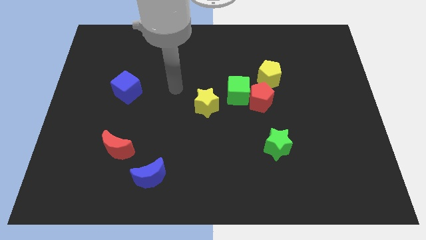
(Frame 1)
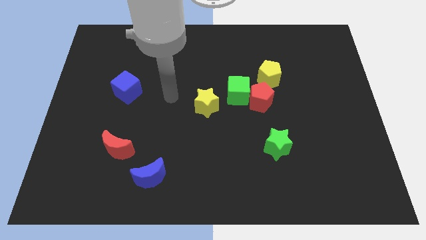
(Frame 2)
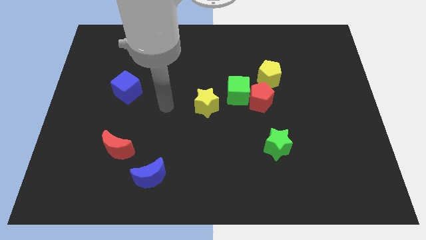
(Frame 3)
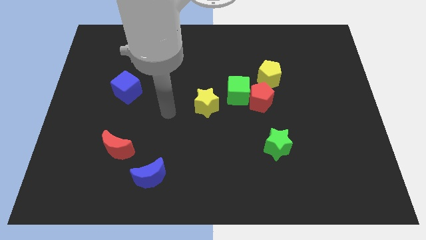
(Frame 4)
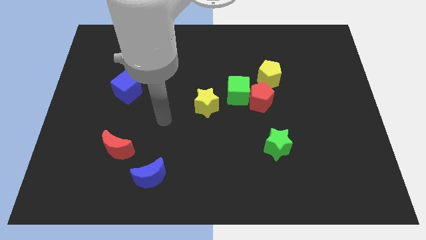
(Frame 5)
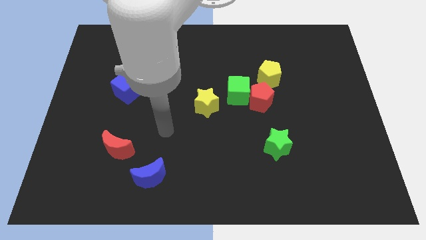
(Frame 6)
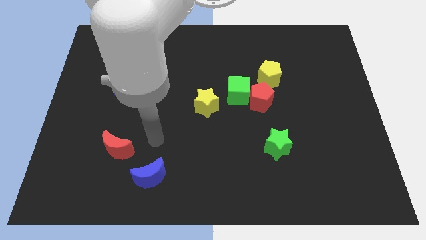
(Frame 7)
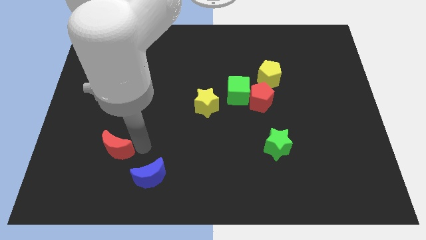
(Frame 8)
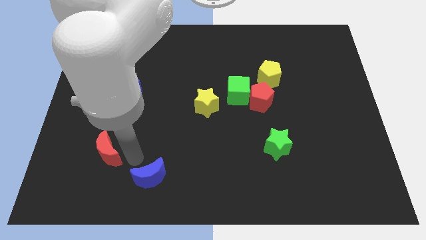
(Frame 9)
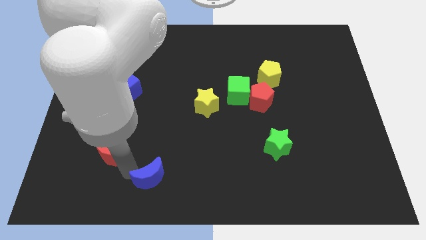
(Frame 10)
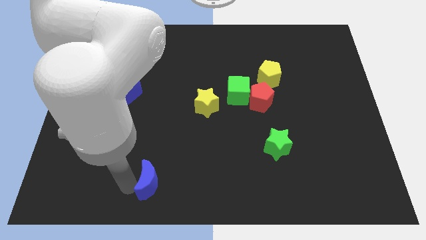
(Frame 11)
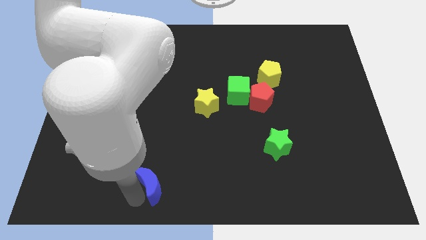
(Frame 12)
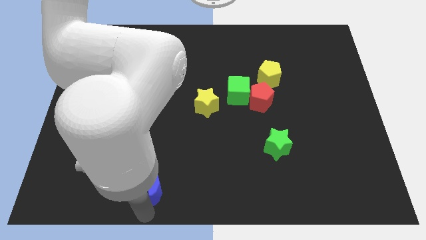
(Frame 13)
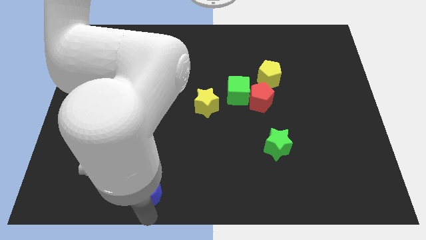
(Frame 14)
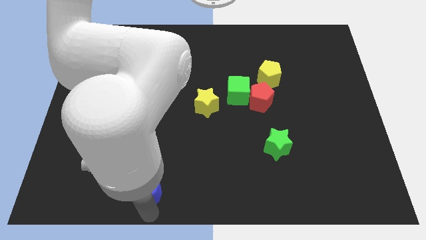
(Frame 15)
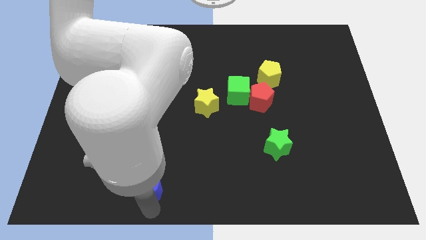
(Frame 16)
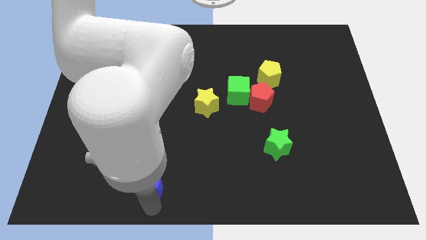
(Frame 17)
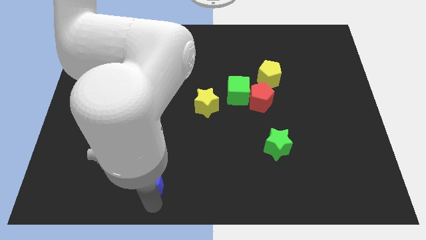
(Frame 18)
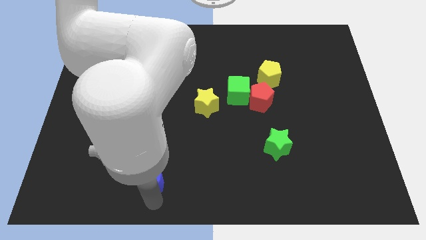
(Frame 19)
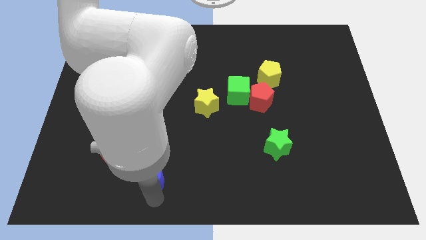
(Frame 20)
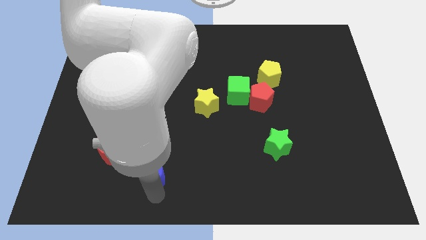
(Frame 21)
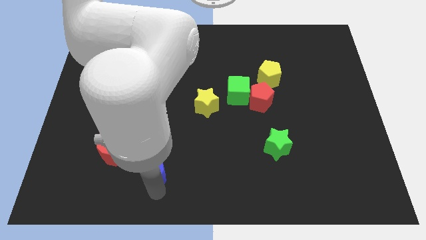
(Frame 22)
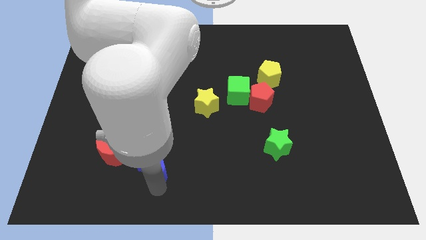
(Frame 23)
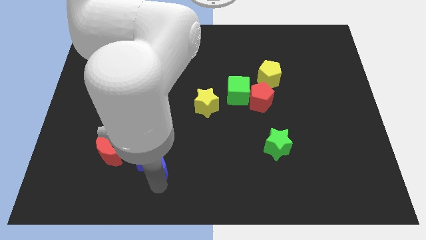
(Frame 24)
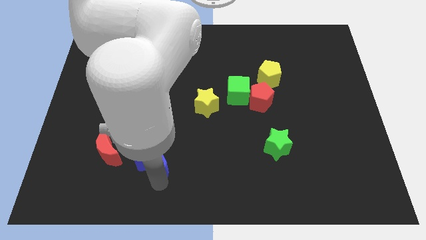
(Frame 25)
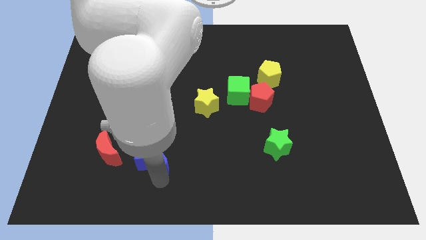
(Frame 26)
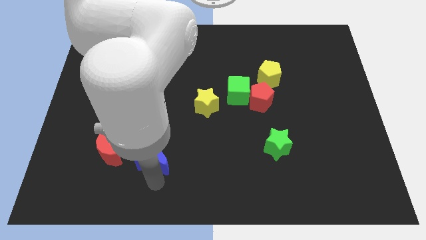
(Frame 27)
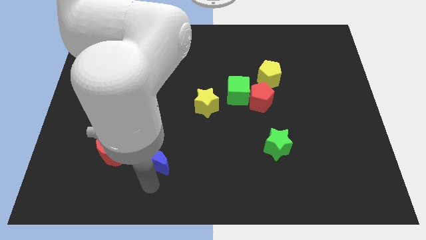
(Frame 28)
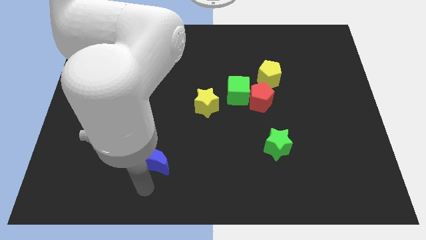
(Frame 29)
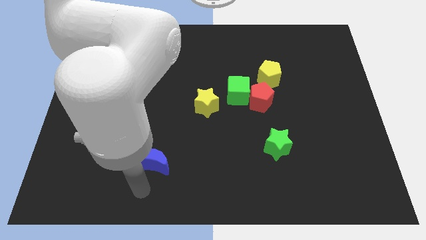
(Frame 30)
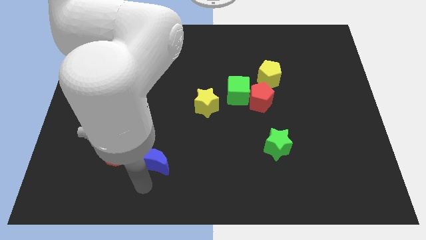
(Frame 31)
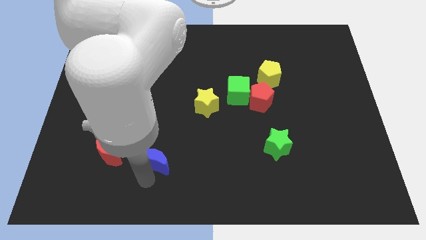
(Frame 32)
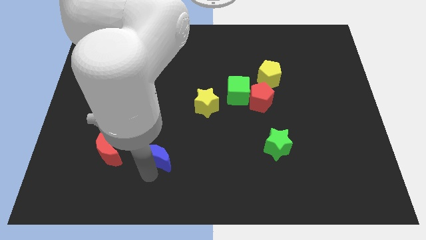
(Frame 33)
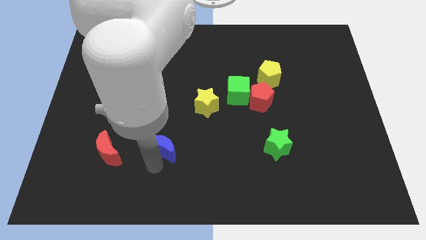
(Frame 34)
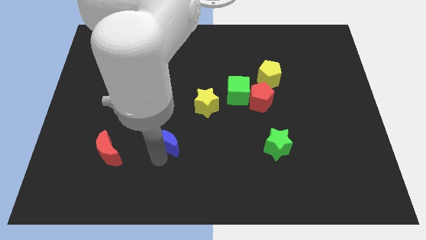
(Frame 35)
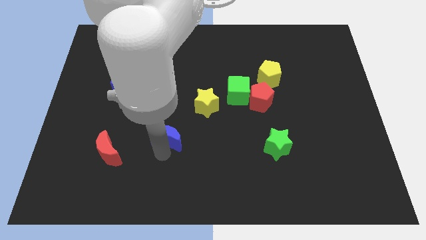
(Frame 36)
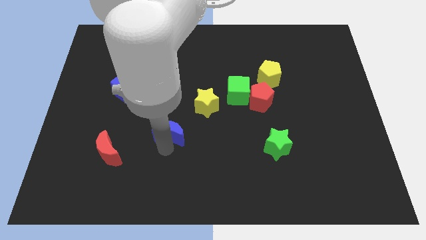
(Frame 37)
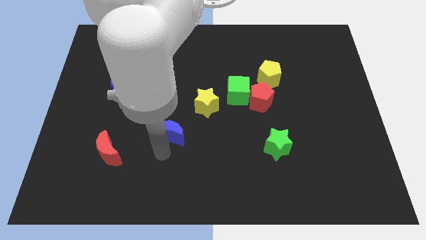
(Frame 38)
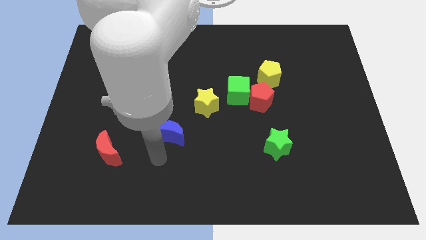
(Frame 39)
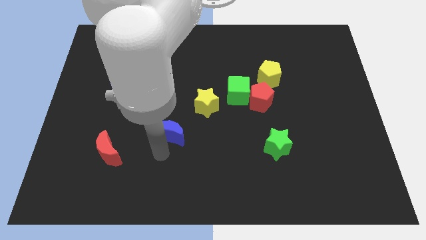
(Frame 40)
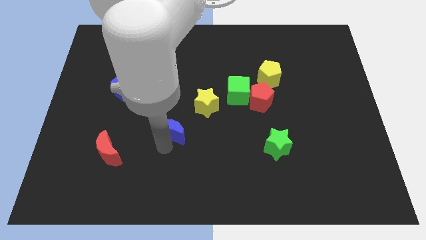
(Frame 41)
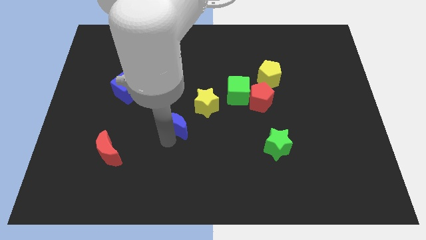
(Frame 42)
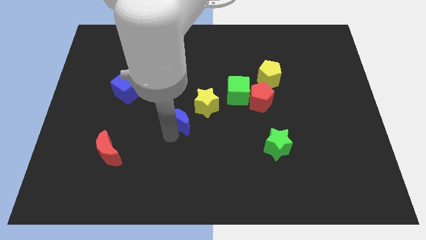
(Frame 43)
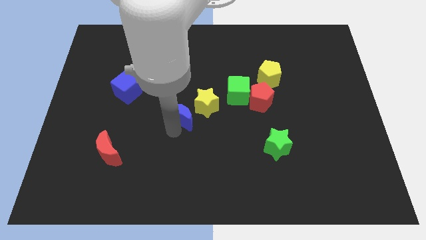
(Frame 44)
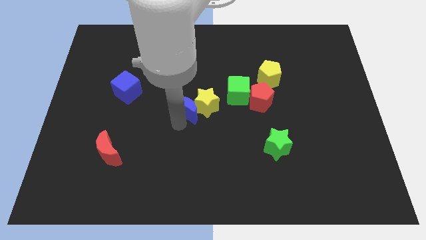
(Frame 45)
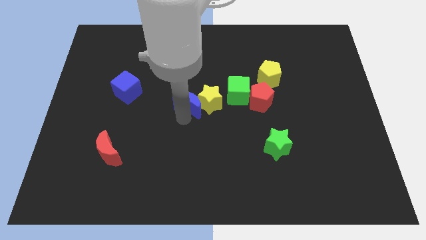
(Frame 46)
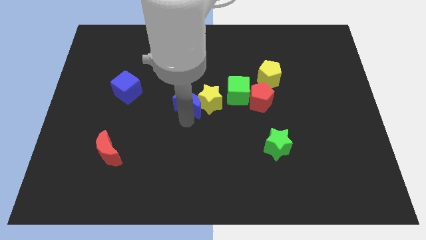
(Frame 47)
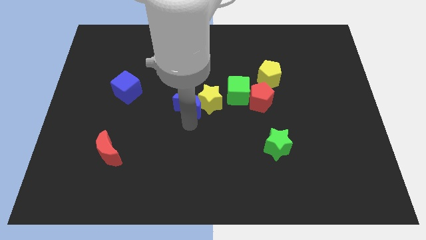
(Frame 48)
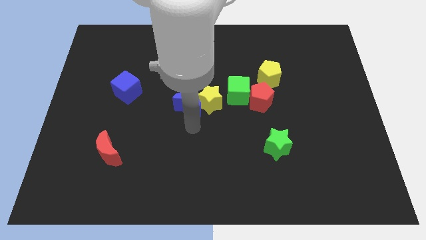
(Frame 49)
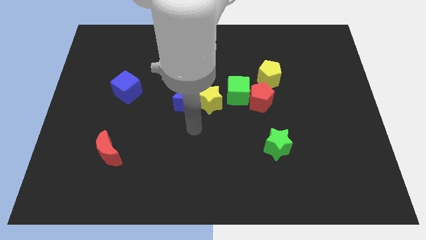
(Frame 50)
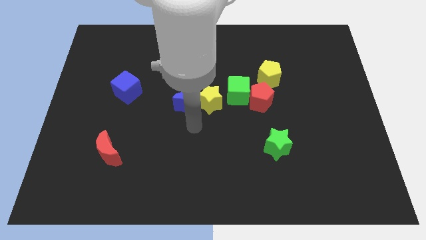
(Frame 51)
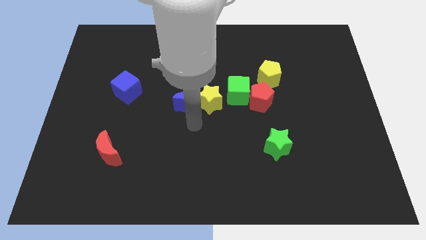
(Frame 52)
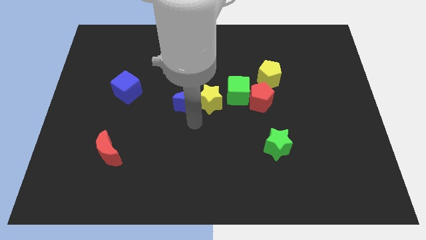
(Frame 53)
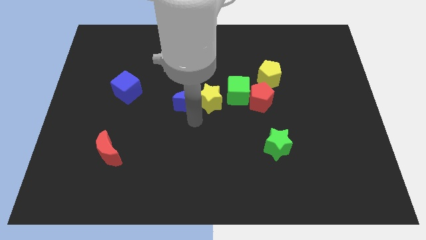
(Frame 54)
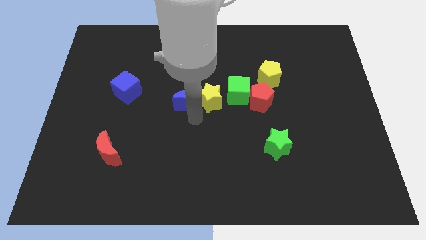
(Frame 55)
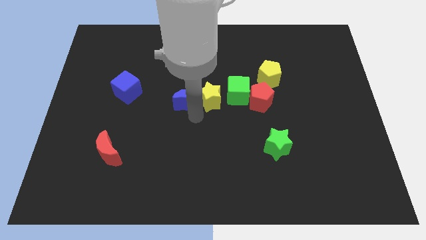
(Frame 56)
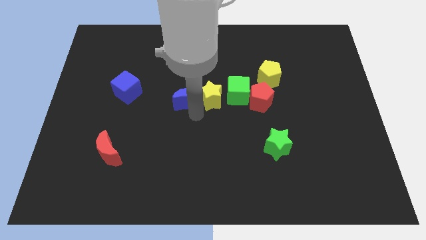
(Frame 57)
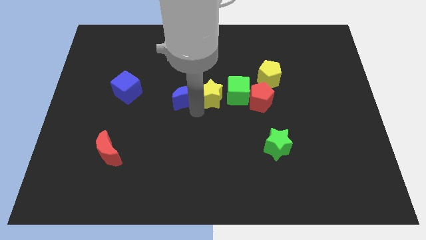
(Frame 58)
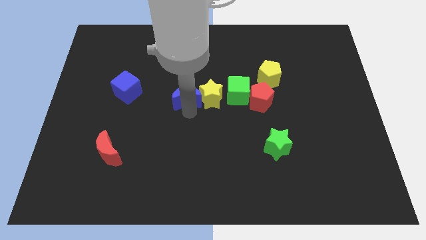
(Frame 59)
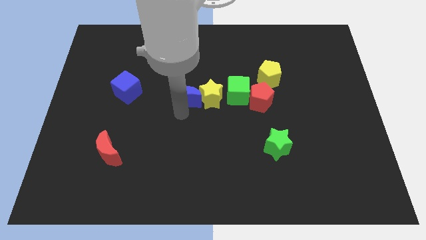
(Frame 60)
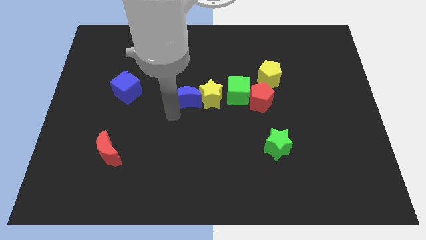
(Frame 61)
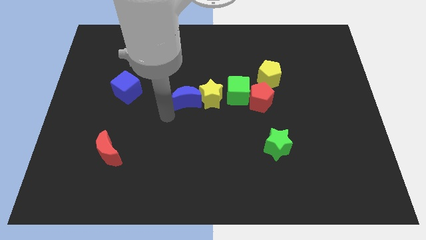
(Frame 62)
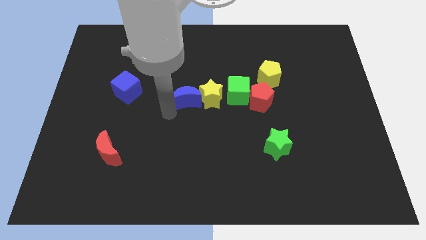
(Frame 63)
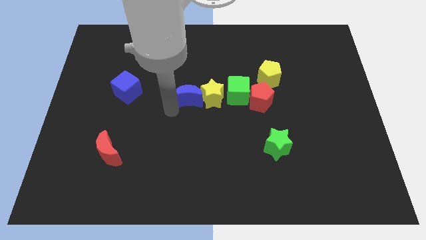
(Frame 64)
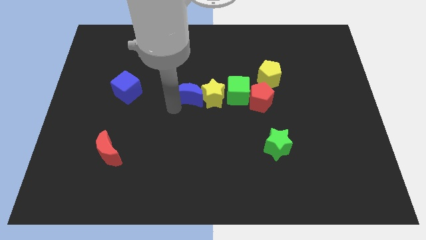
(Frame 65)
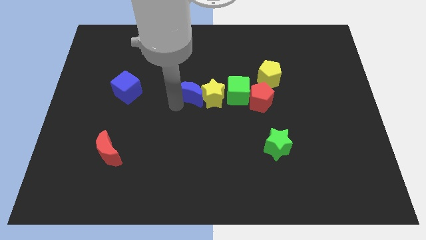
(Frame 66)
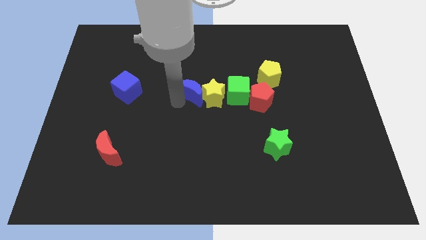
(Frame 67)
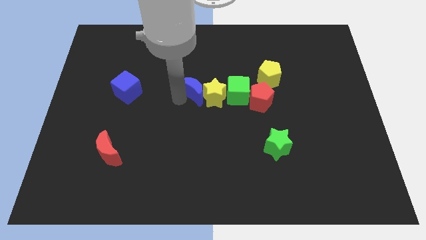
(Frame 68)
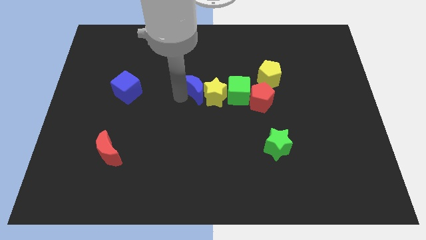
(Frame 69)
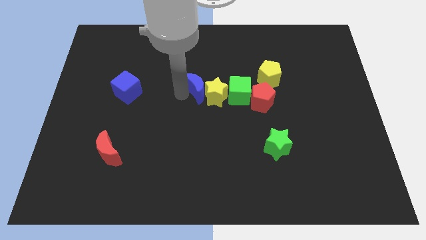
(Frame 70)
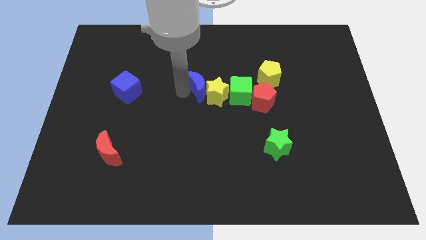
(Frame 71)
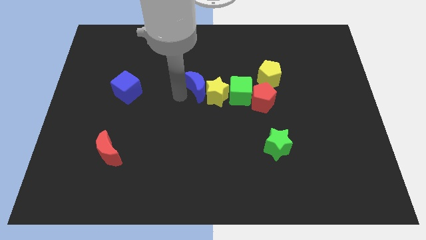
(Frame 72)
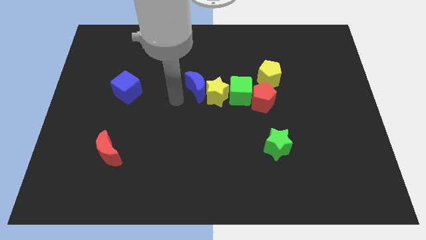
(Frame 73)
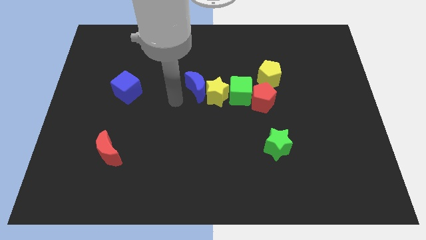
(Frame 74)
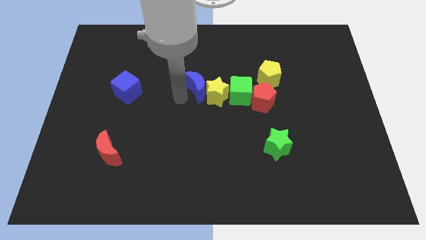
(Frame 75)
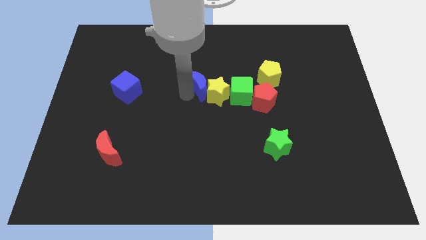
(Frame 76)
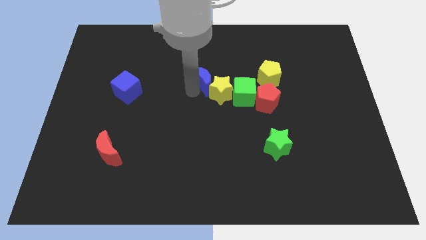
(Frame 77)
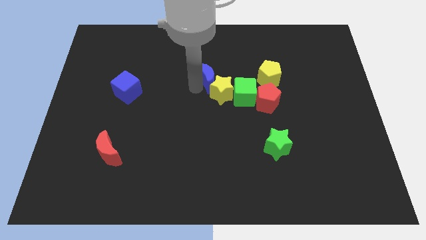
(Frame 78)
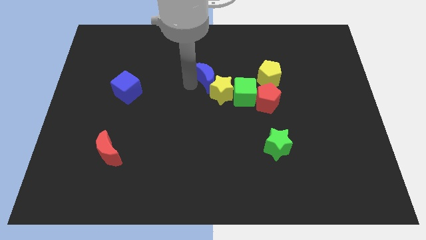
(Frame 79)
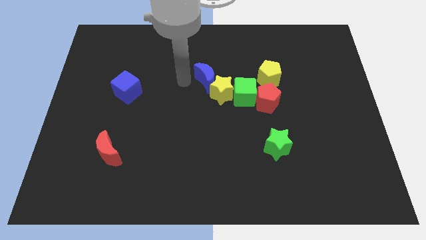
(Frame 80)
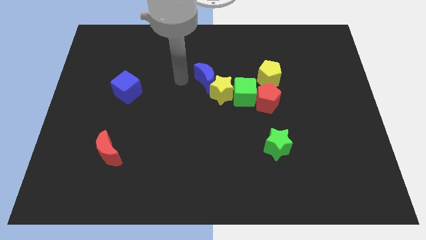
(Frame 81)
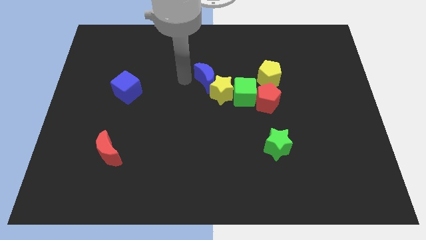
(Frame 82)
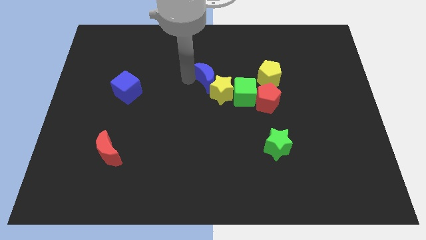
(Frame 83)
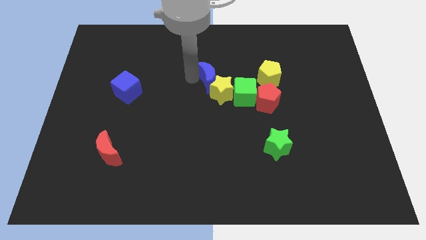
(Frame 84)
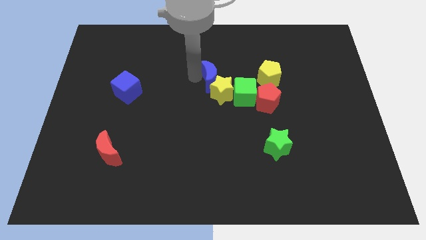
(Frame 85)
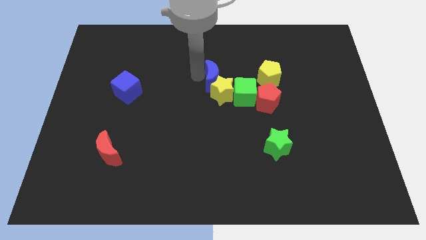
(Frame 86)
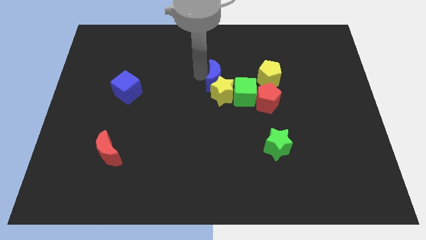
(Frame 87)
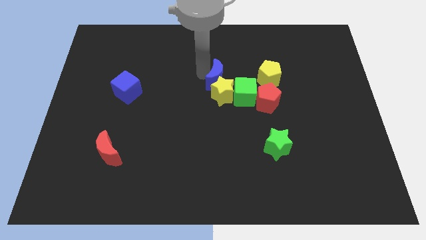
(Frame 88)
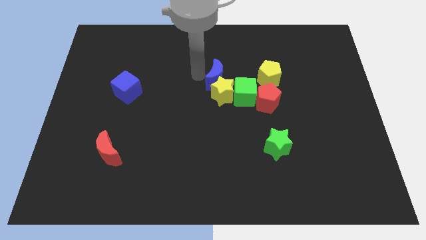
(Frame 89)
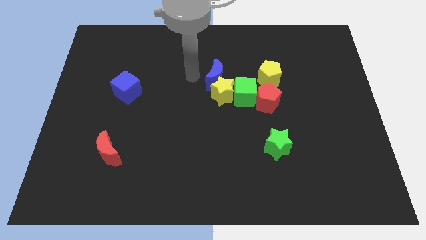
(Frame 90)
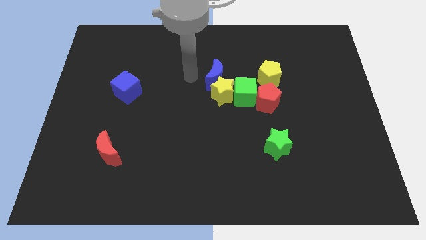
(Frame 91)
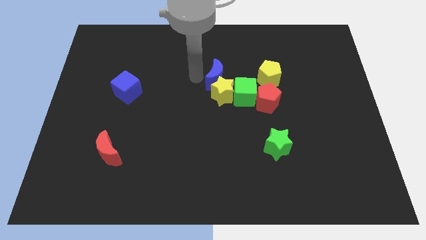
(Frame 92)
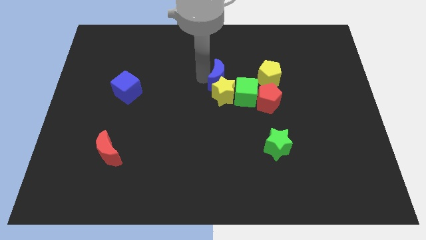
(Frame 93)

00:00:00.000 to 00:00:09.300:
put the blue moon to the top right side of the yellow star
